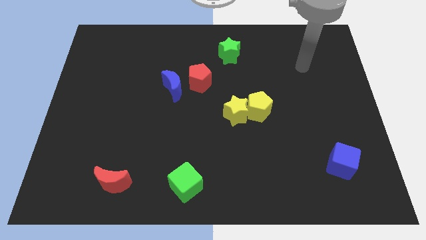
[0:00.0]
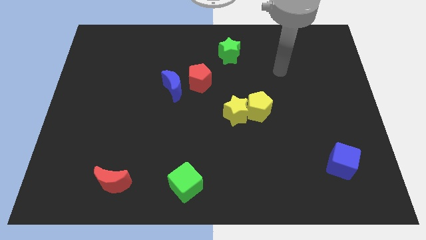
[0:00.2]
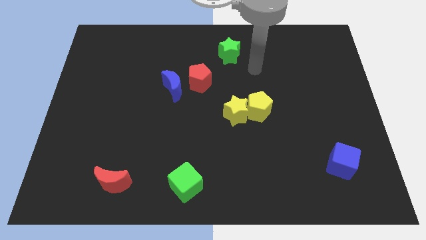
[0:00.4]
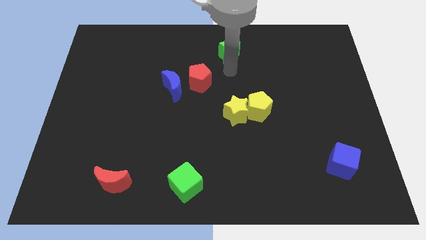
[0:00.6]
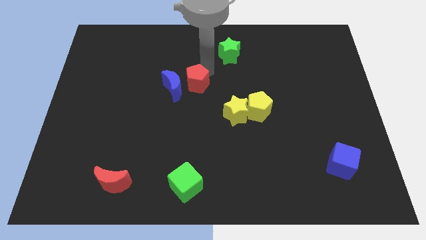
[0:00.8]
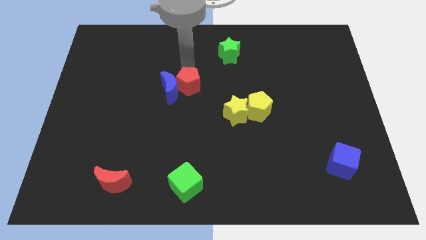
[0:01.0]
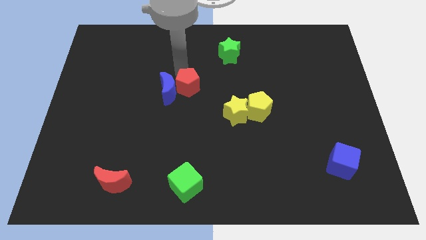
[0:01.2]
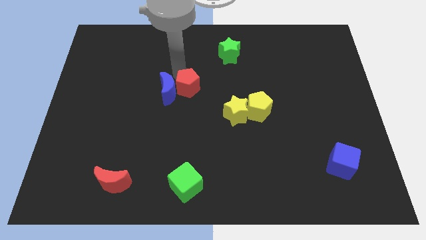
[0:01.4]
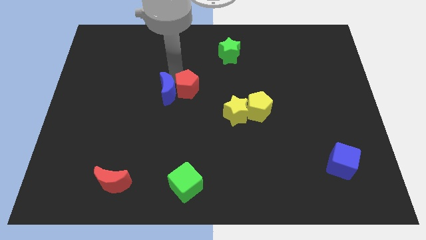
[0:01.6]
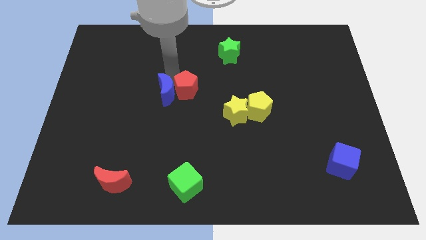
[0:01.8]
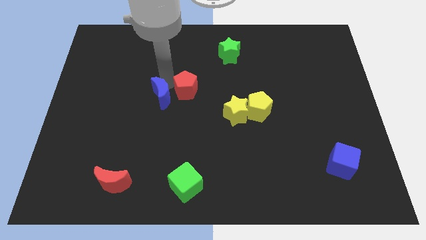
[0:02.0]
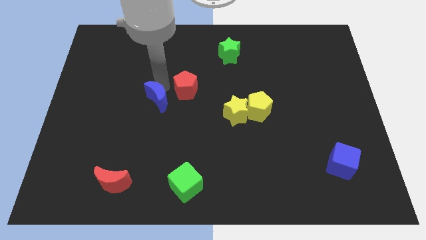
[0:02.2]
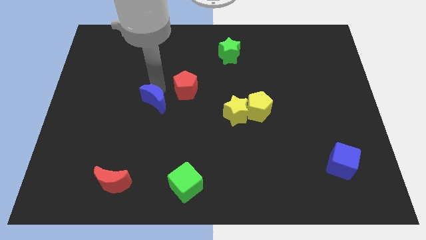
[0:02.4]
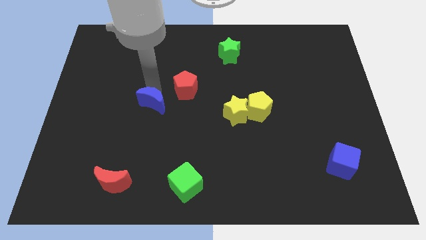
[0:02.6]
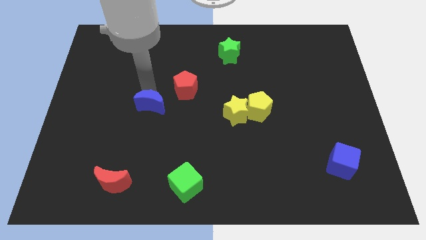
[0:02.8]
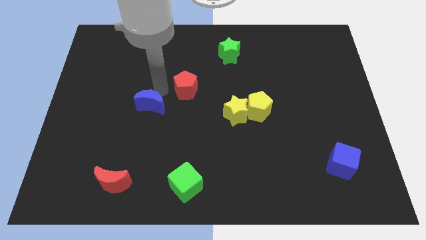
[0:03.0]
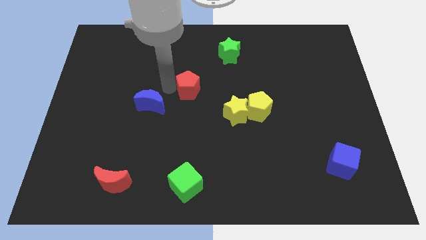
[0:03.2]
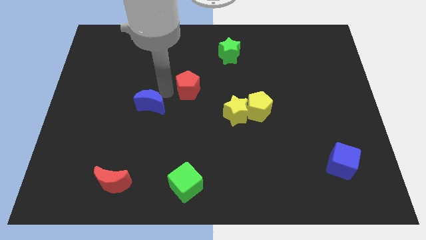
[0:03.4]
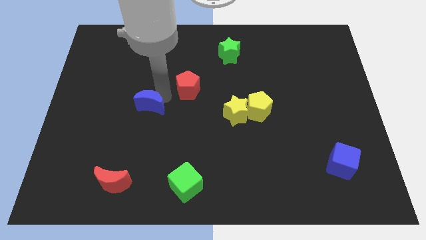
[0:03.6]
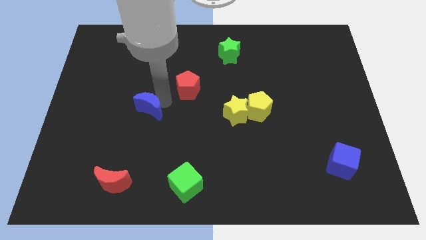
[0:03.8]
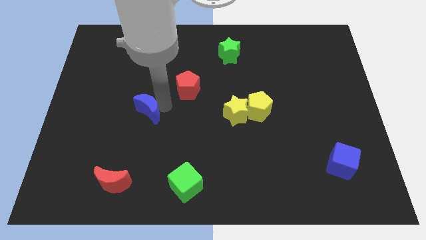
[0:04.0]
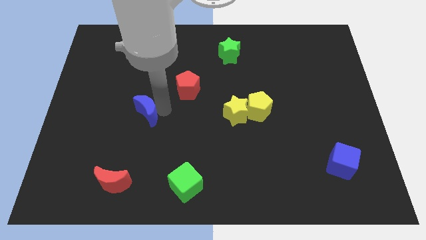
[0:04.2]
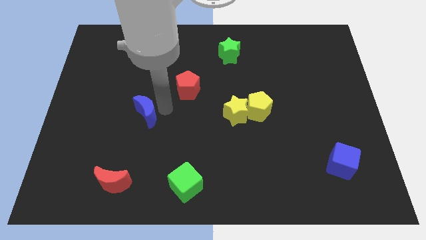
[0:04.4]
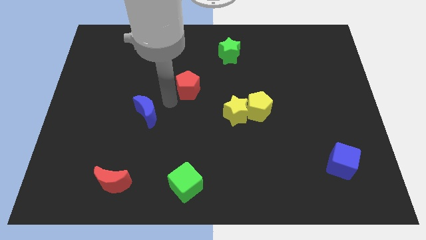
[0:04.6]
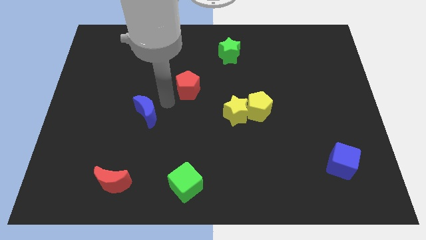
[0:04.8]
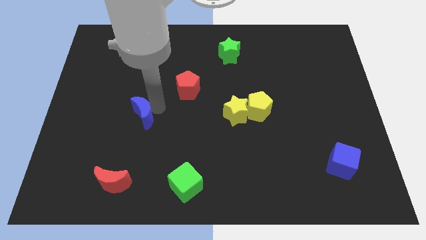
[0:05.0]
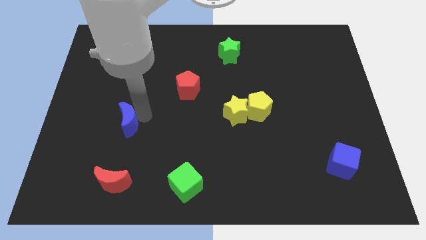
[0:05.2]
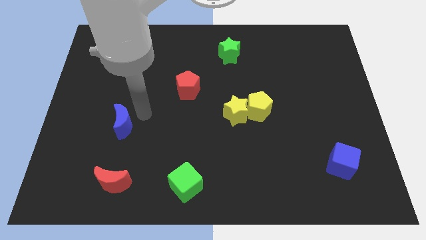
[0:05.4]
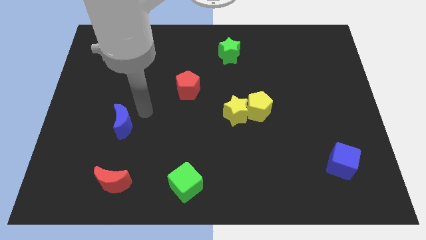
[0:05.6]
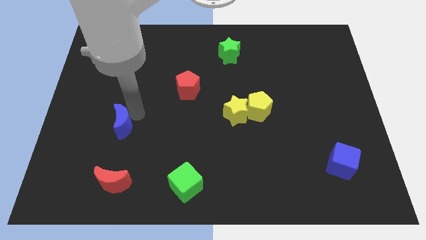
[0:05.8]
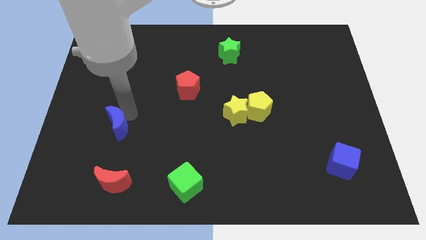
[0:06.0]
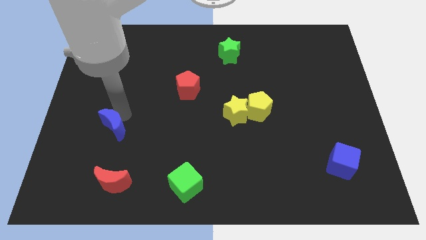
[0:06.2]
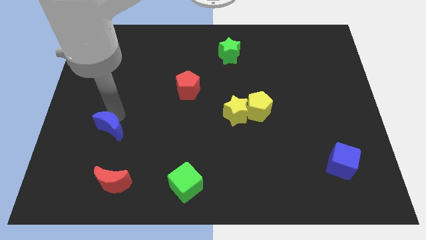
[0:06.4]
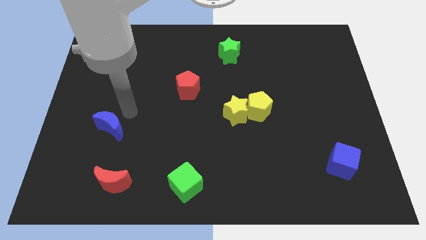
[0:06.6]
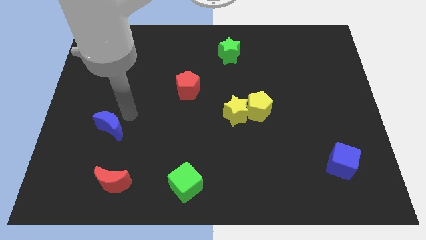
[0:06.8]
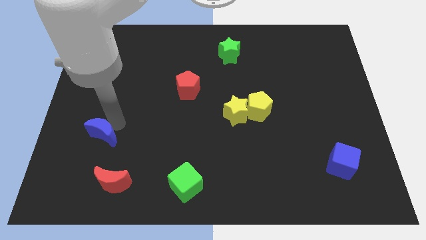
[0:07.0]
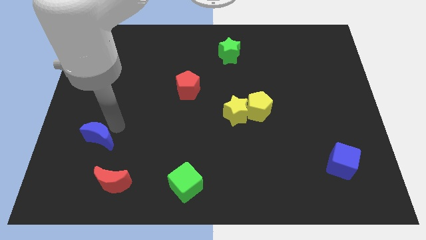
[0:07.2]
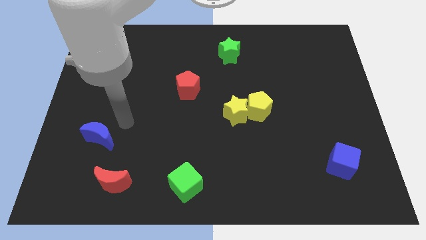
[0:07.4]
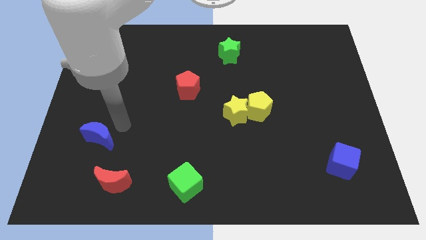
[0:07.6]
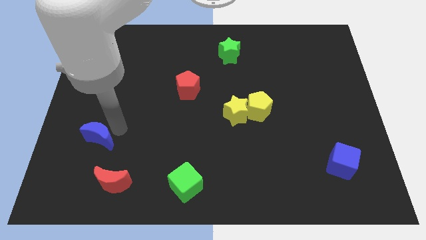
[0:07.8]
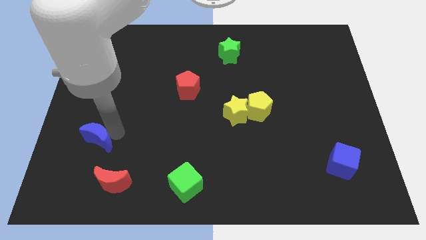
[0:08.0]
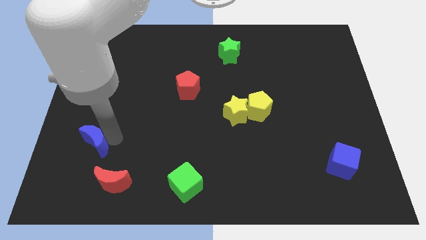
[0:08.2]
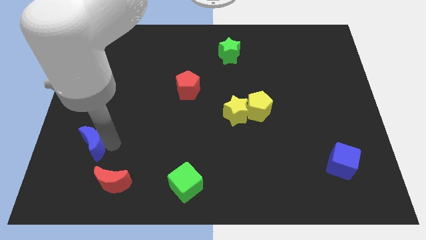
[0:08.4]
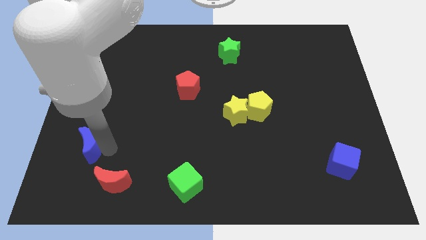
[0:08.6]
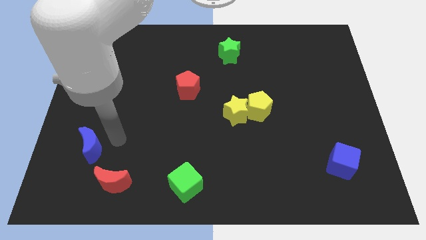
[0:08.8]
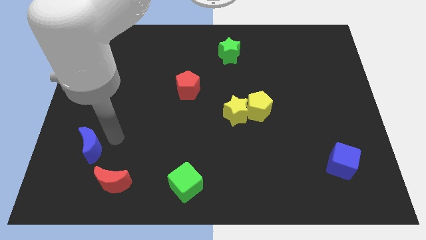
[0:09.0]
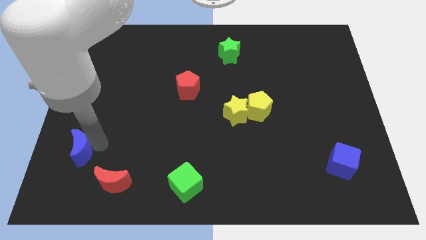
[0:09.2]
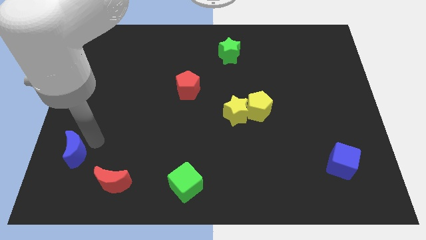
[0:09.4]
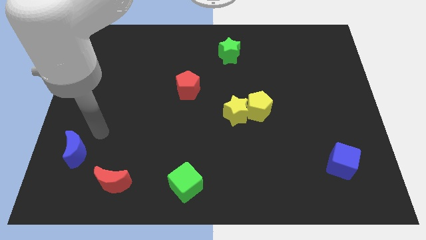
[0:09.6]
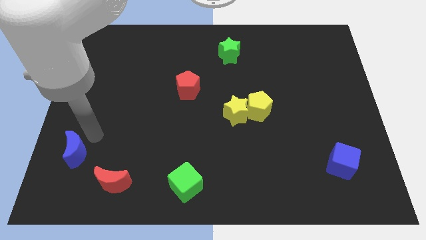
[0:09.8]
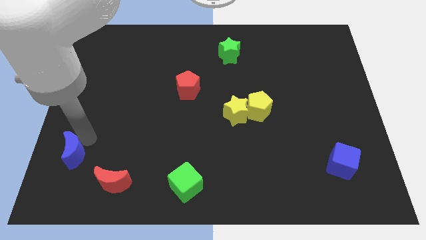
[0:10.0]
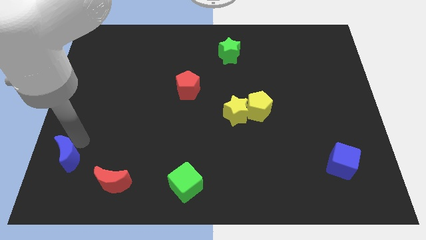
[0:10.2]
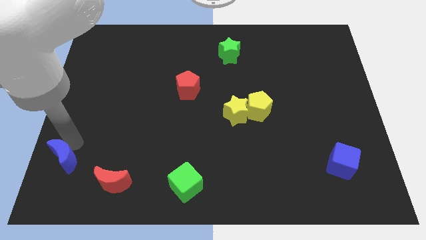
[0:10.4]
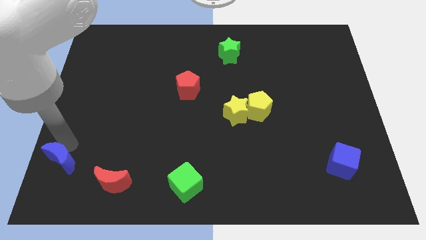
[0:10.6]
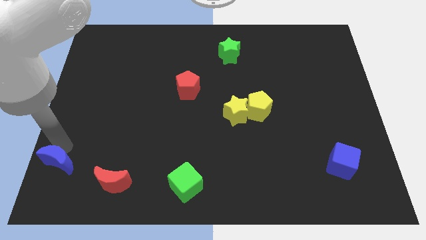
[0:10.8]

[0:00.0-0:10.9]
move the blue moon to the bottom left corner

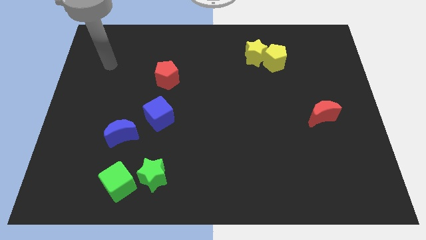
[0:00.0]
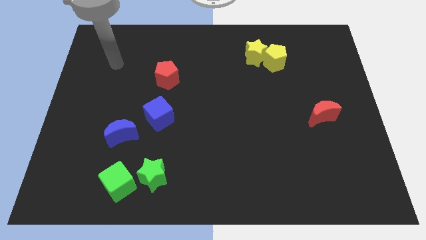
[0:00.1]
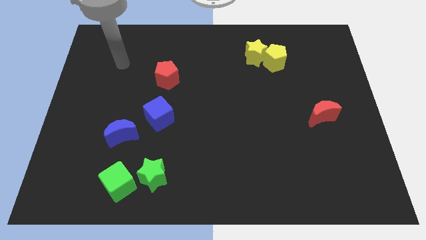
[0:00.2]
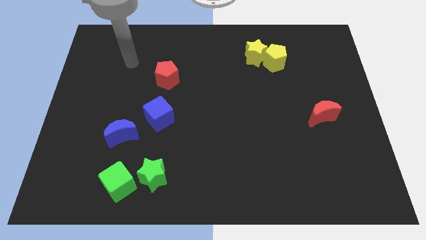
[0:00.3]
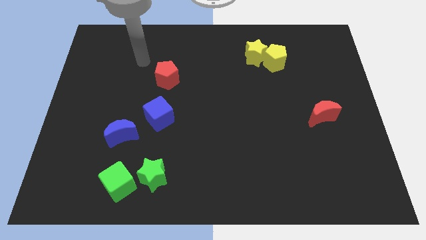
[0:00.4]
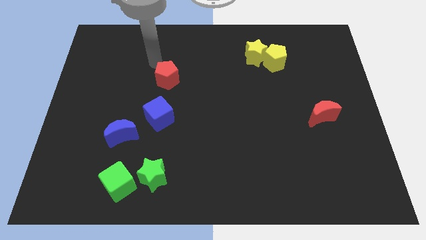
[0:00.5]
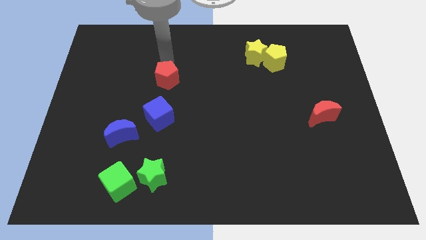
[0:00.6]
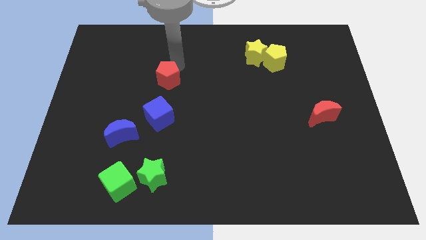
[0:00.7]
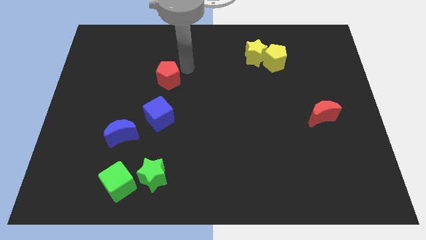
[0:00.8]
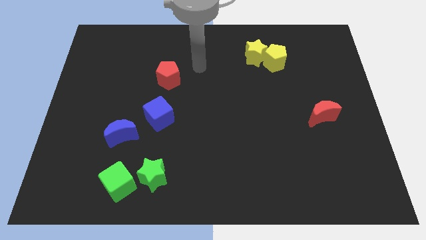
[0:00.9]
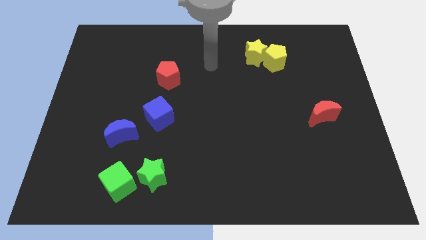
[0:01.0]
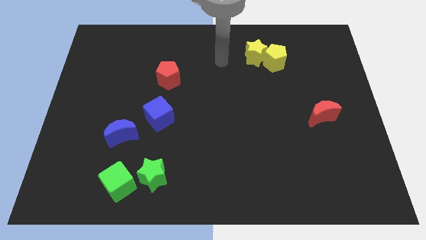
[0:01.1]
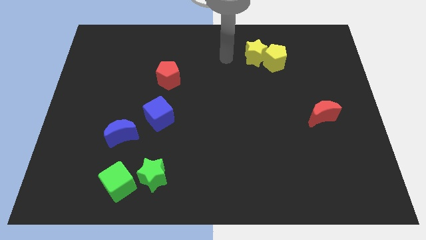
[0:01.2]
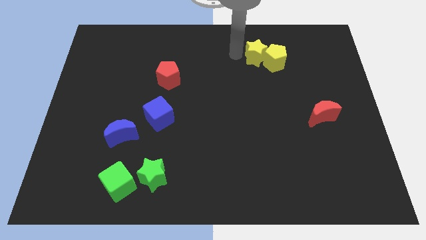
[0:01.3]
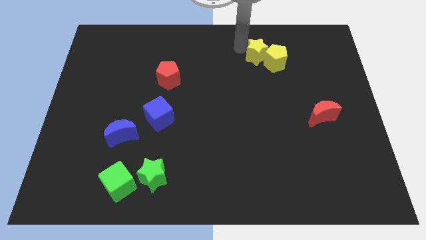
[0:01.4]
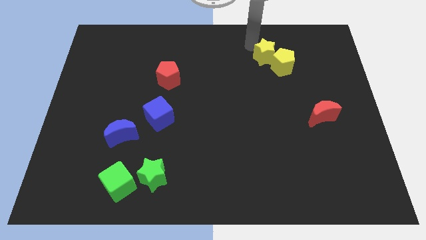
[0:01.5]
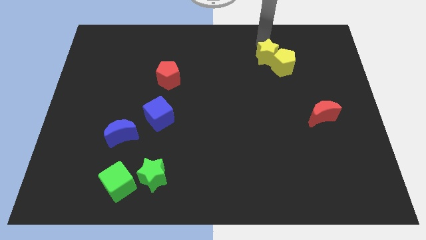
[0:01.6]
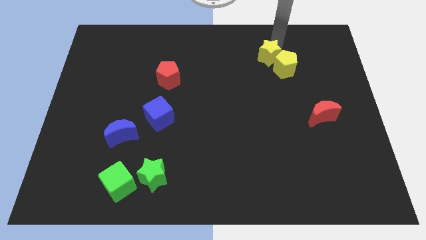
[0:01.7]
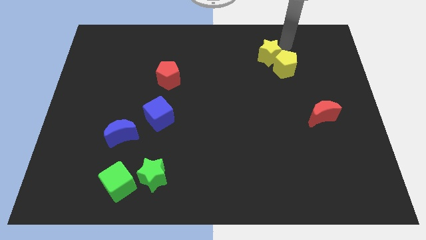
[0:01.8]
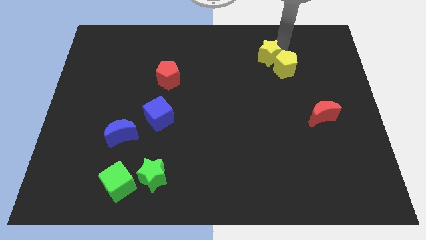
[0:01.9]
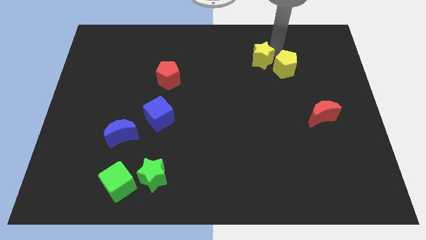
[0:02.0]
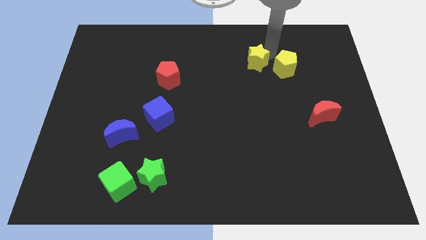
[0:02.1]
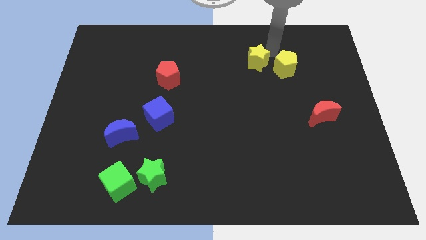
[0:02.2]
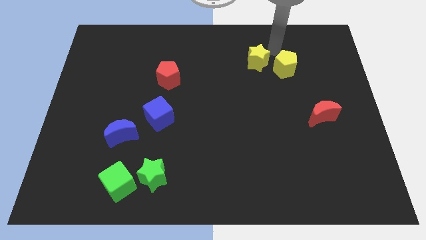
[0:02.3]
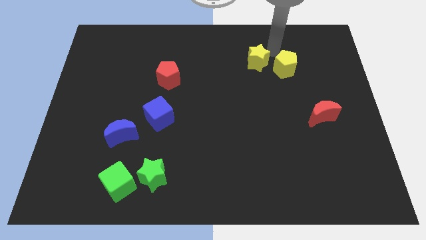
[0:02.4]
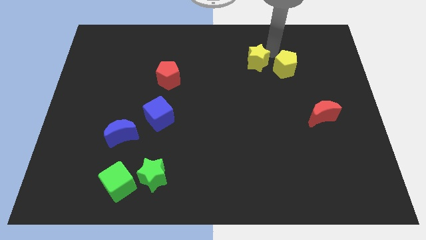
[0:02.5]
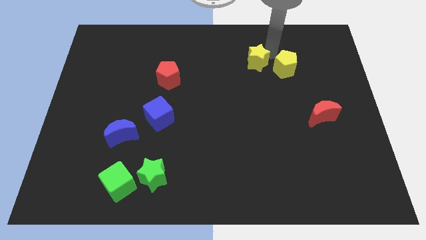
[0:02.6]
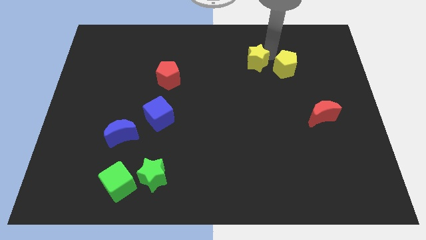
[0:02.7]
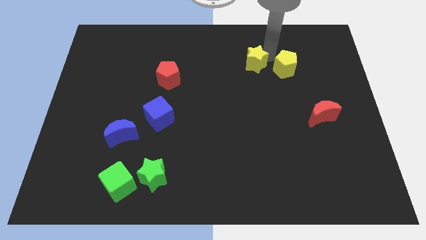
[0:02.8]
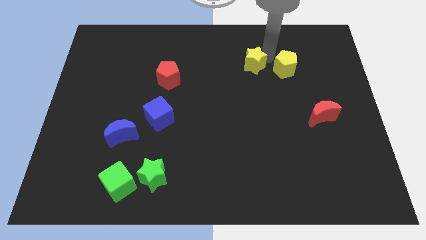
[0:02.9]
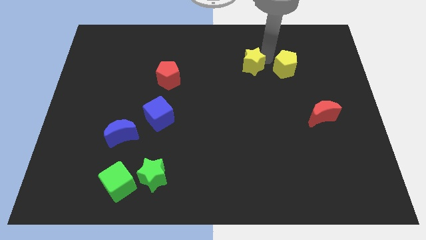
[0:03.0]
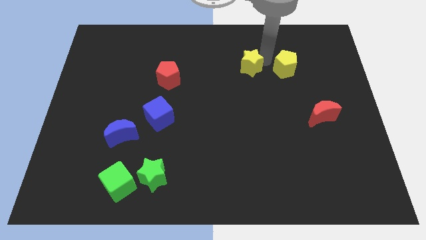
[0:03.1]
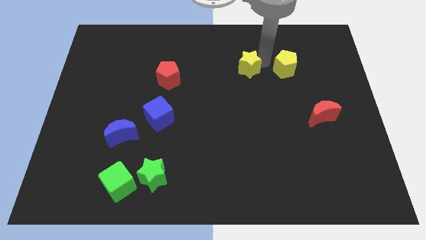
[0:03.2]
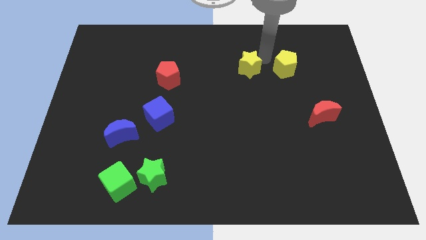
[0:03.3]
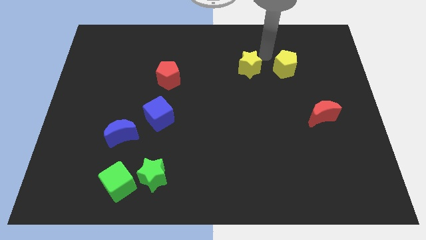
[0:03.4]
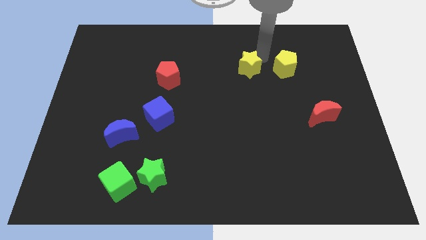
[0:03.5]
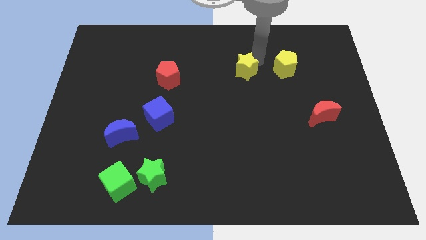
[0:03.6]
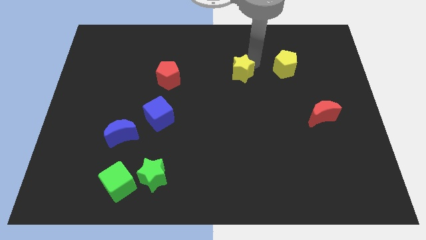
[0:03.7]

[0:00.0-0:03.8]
put the yellow star to the middle of the board
